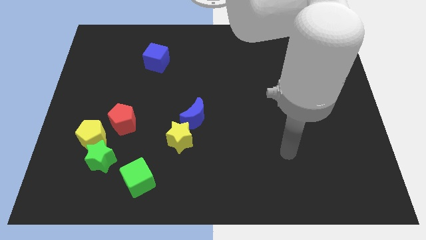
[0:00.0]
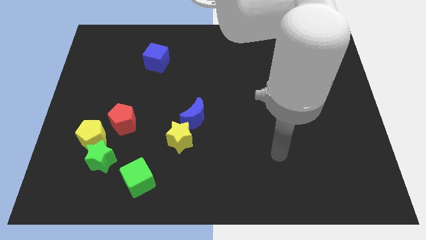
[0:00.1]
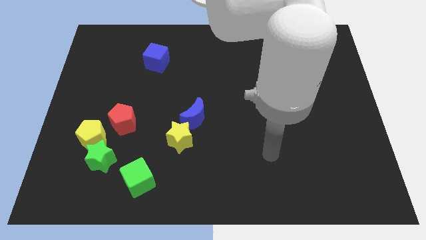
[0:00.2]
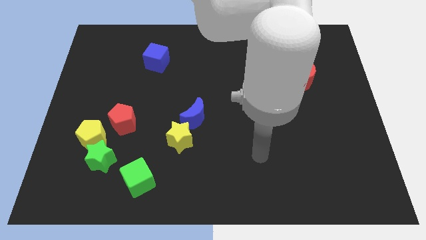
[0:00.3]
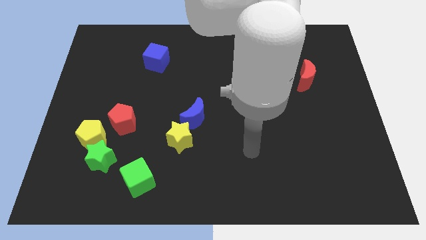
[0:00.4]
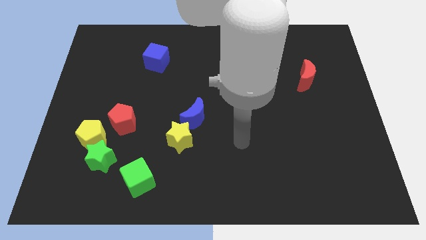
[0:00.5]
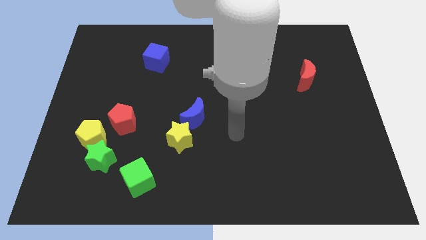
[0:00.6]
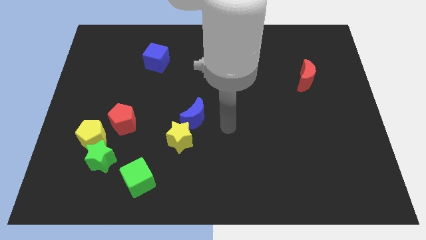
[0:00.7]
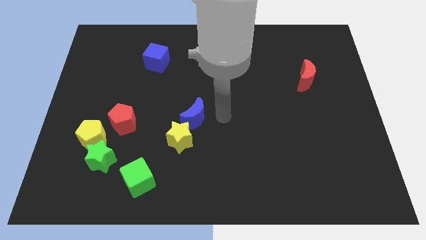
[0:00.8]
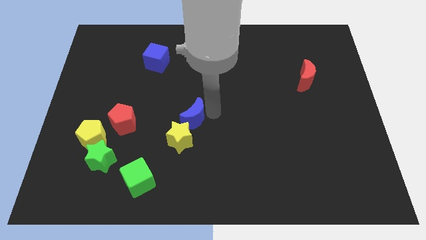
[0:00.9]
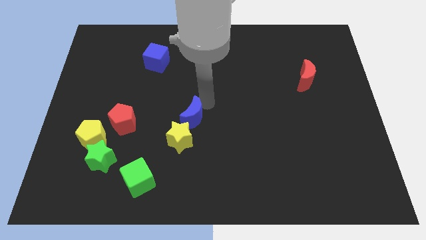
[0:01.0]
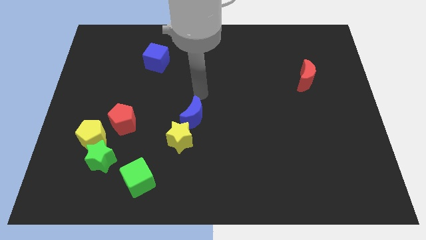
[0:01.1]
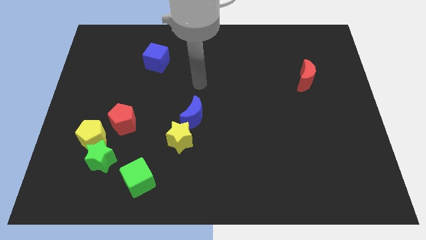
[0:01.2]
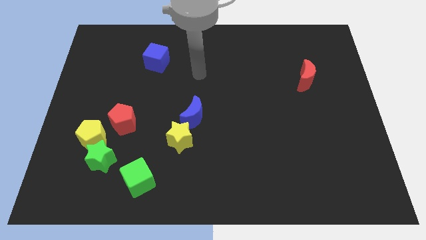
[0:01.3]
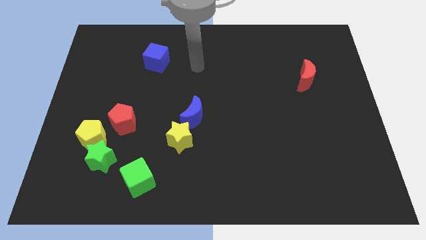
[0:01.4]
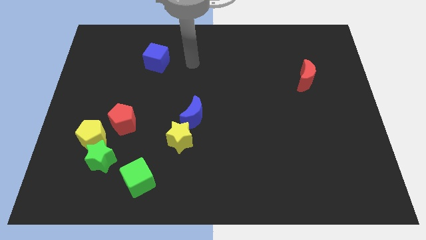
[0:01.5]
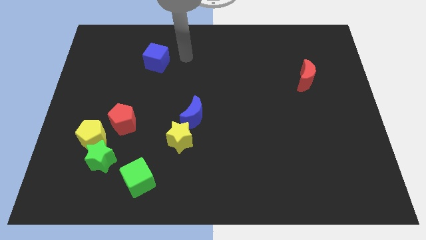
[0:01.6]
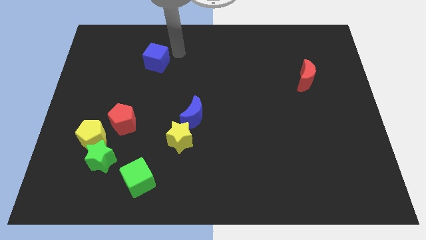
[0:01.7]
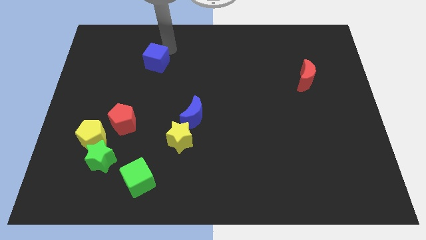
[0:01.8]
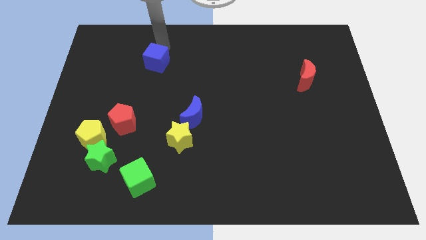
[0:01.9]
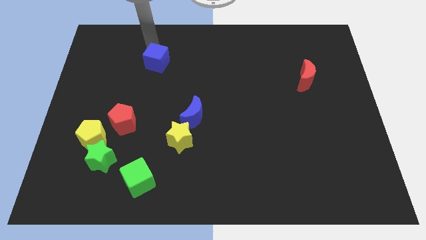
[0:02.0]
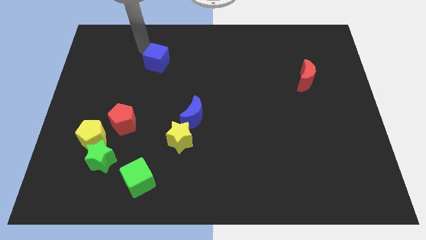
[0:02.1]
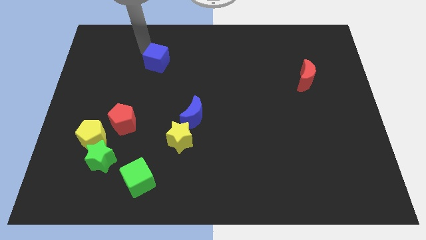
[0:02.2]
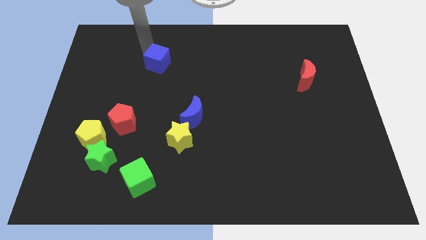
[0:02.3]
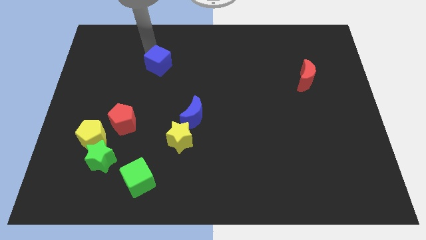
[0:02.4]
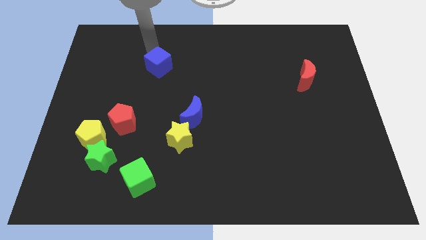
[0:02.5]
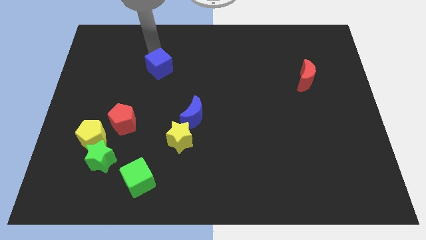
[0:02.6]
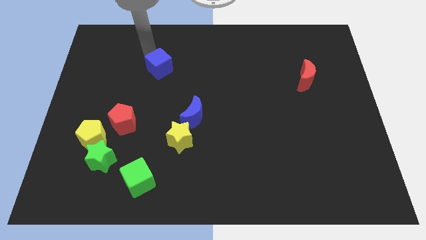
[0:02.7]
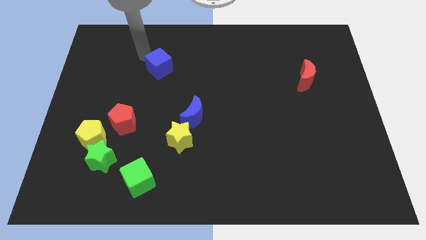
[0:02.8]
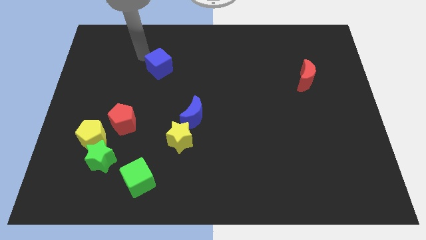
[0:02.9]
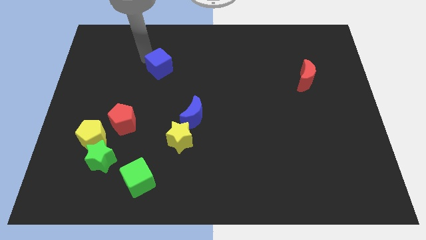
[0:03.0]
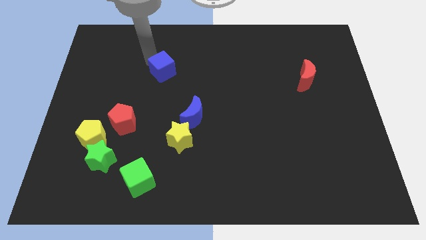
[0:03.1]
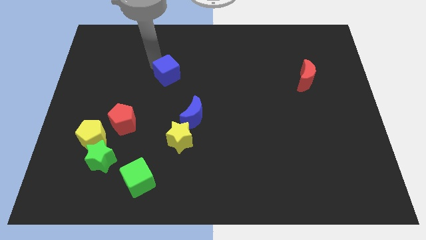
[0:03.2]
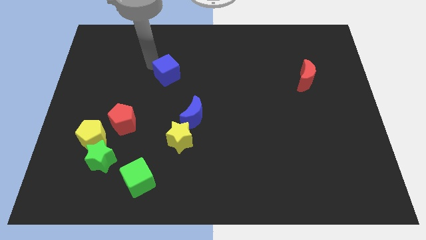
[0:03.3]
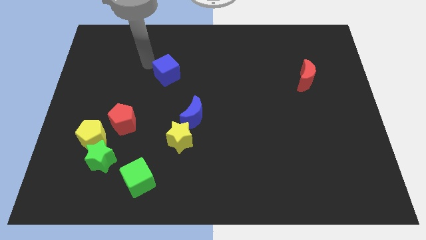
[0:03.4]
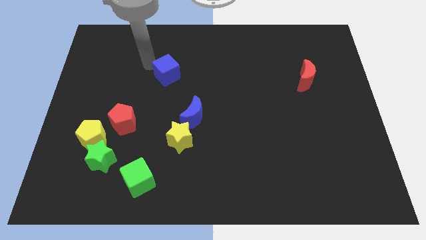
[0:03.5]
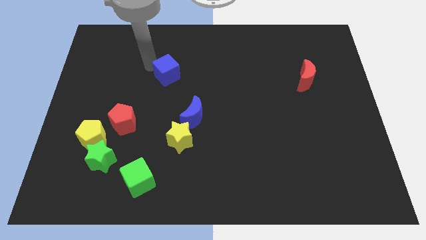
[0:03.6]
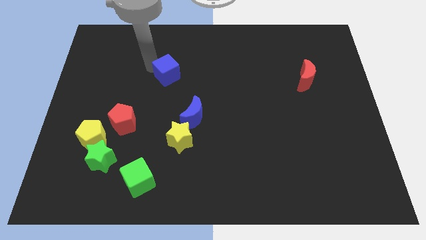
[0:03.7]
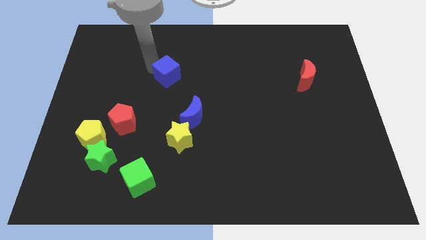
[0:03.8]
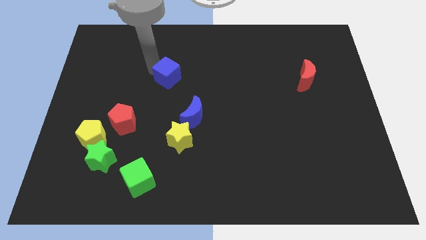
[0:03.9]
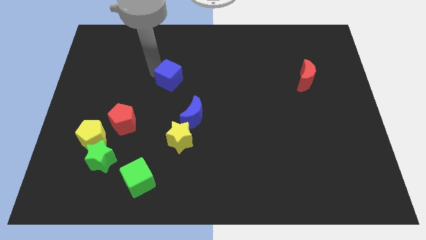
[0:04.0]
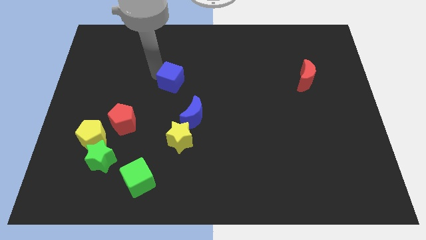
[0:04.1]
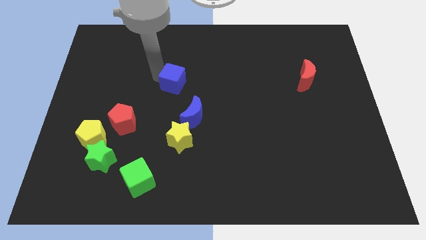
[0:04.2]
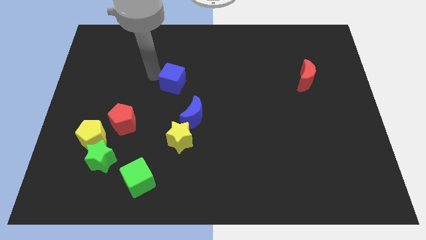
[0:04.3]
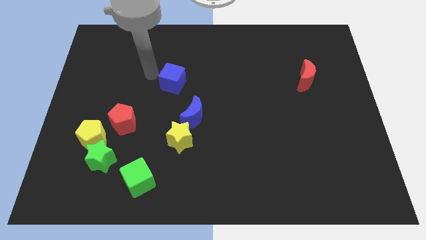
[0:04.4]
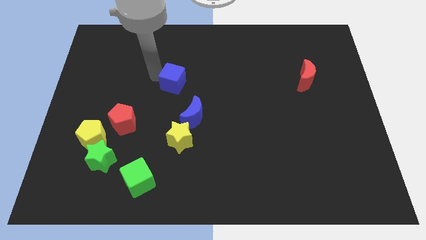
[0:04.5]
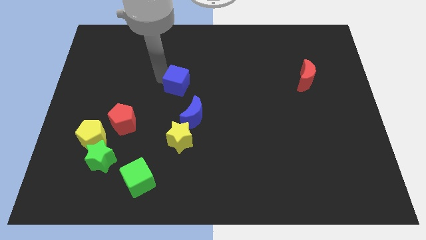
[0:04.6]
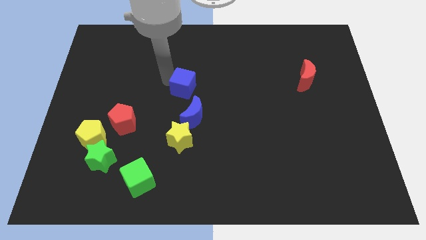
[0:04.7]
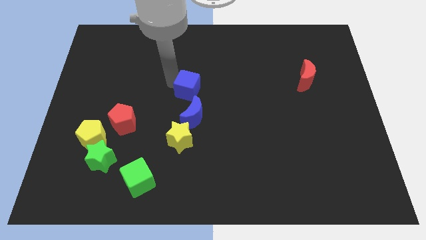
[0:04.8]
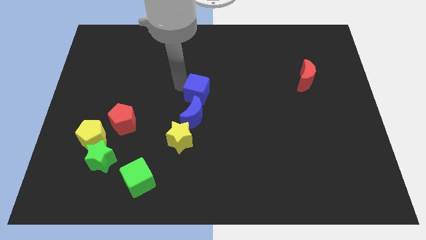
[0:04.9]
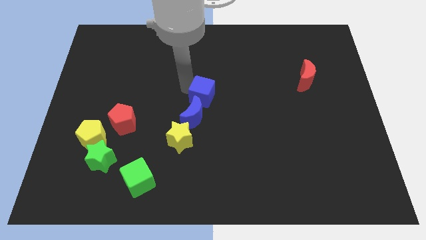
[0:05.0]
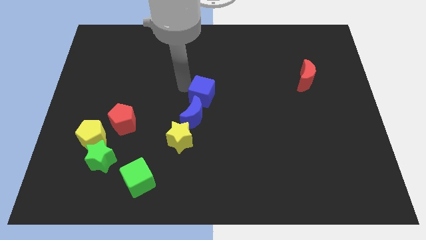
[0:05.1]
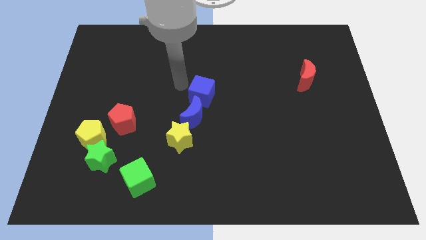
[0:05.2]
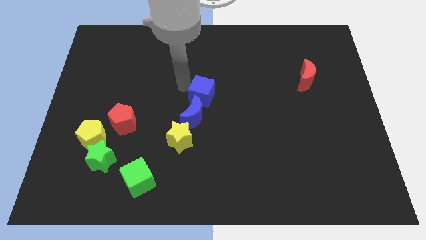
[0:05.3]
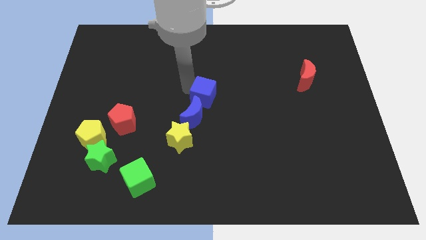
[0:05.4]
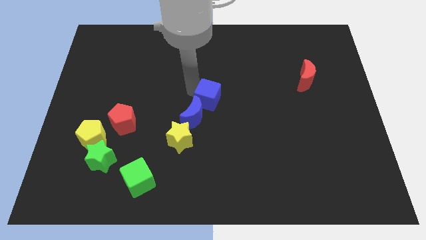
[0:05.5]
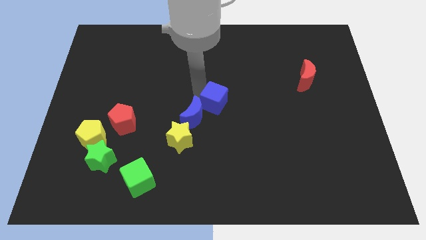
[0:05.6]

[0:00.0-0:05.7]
move the blue cube down and right

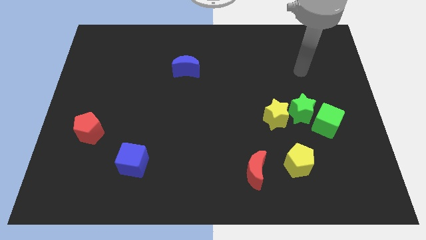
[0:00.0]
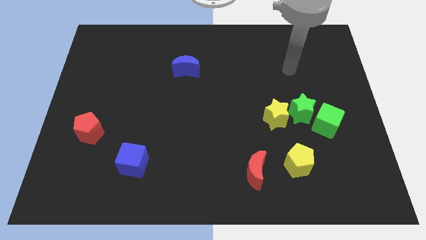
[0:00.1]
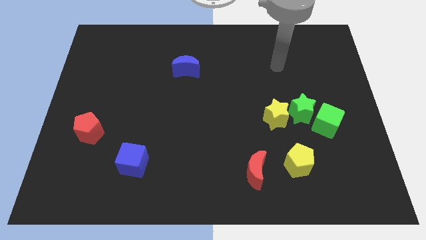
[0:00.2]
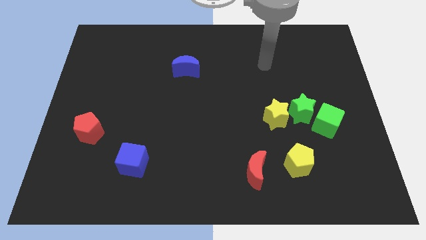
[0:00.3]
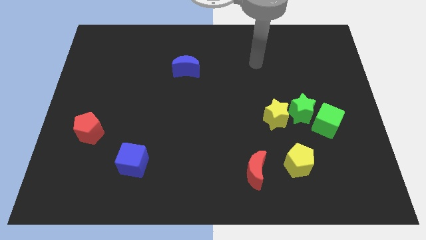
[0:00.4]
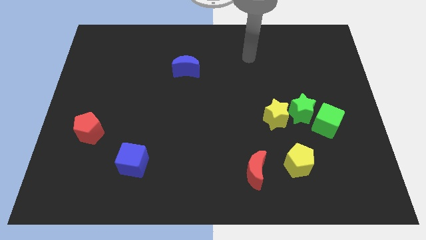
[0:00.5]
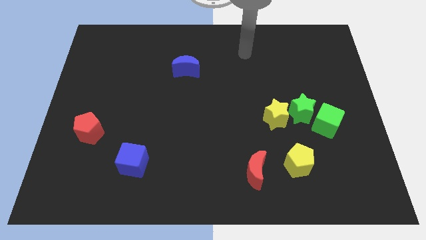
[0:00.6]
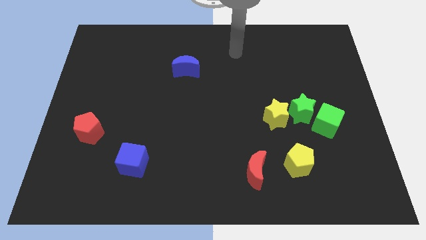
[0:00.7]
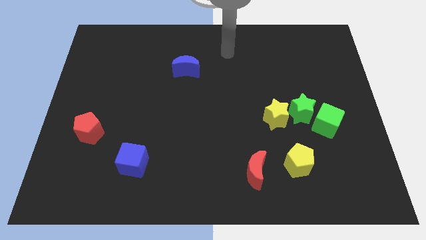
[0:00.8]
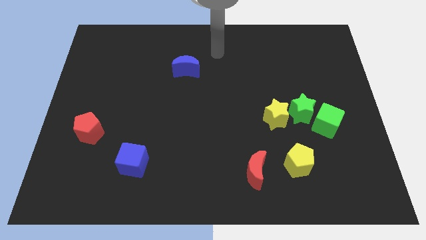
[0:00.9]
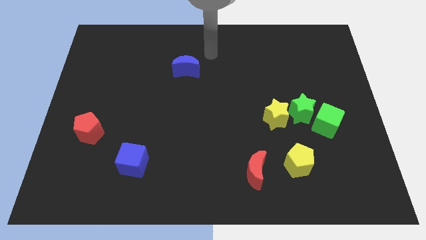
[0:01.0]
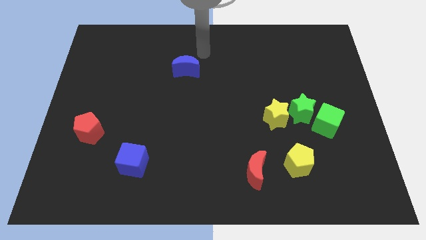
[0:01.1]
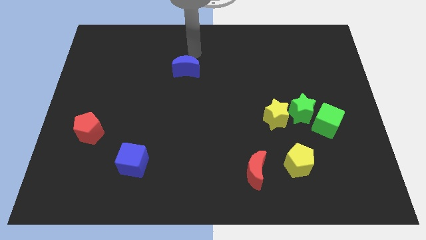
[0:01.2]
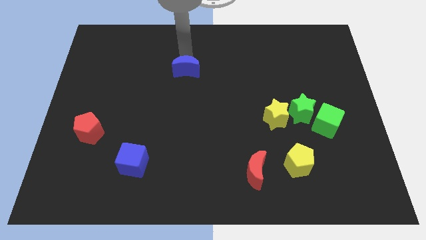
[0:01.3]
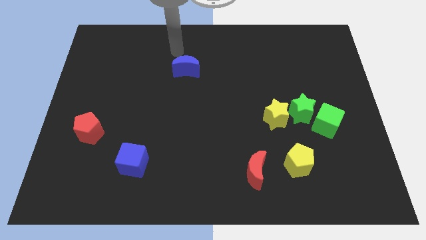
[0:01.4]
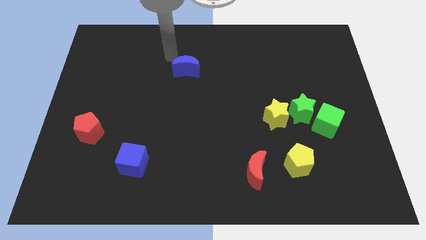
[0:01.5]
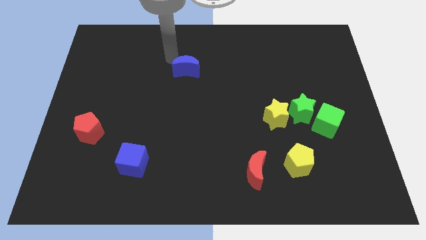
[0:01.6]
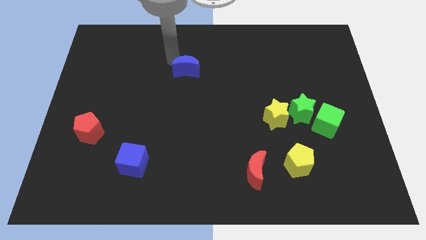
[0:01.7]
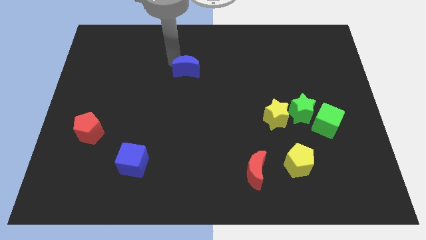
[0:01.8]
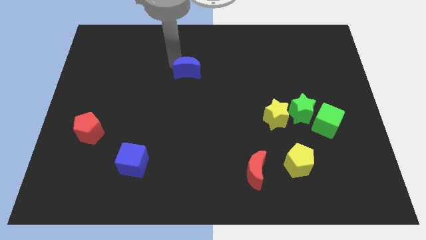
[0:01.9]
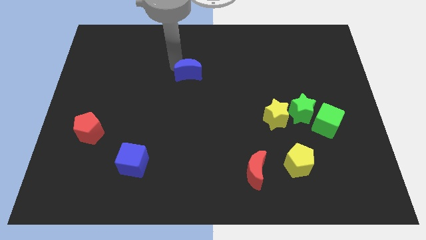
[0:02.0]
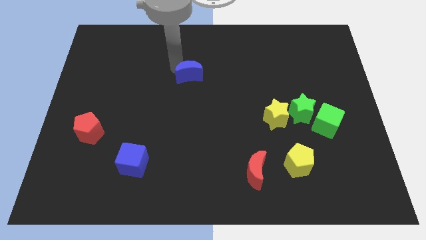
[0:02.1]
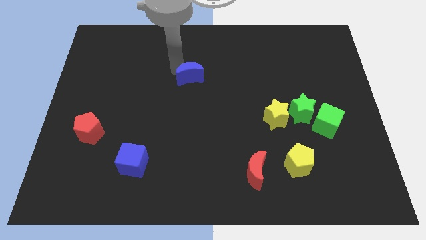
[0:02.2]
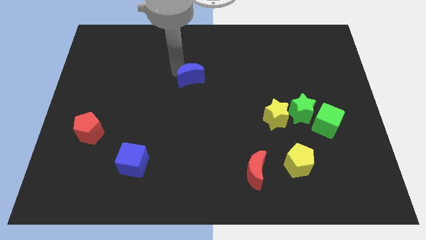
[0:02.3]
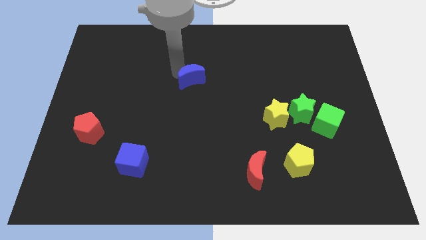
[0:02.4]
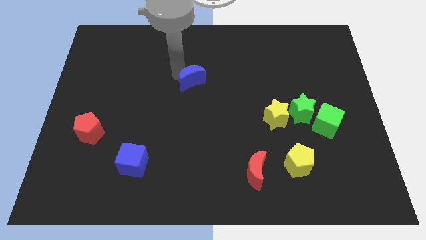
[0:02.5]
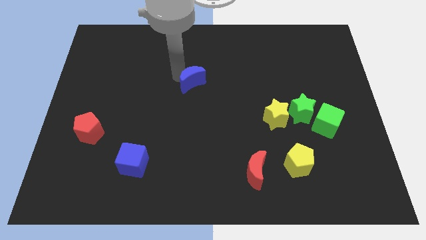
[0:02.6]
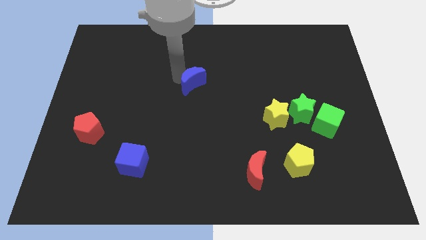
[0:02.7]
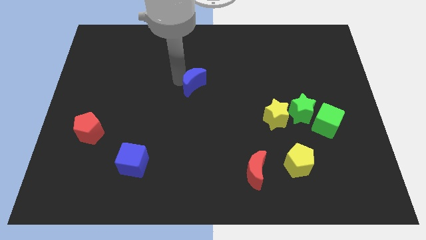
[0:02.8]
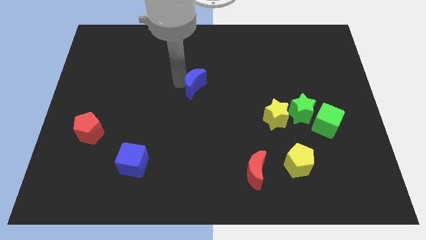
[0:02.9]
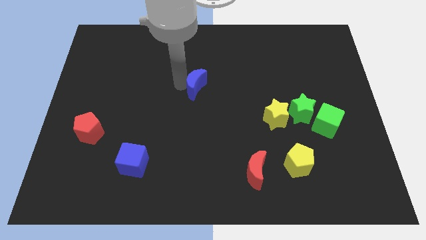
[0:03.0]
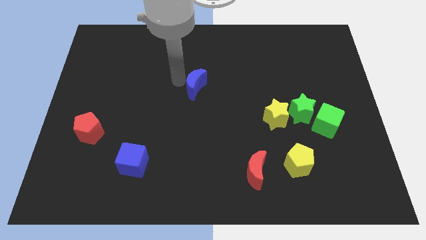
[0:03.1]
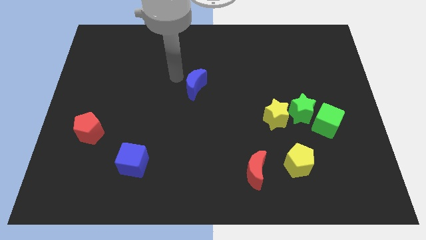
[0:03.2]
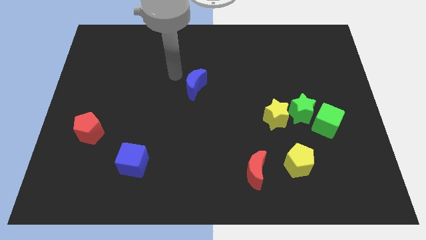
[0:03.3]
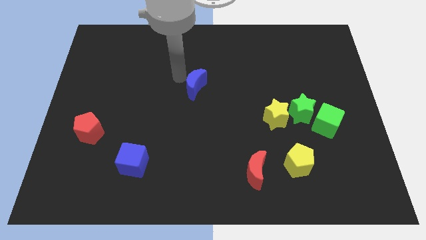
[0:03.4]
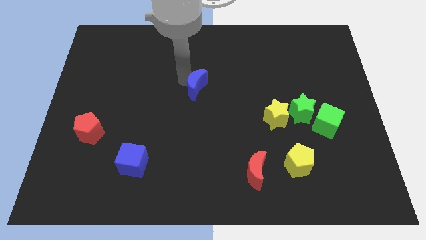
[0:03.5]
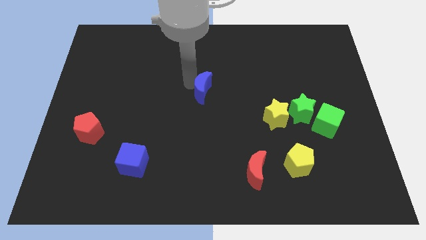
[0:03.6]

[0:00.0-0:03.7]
slide the blue moon a bit diagonally downwards and right
